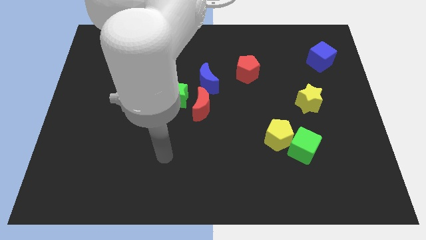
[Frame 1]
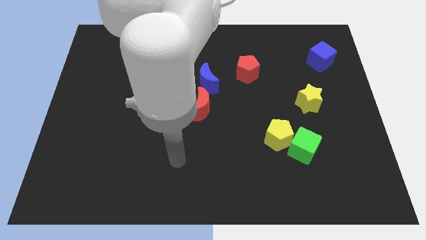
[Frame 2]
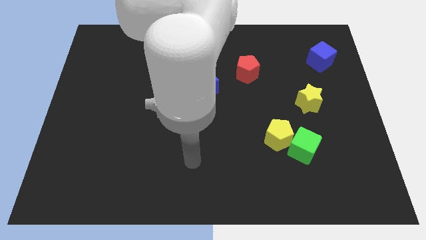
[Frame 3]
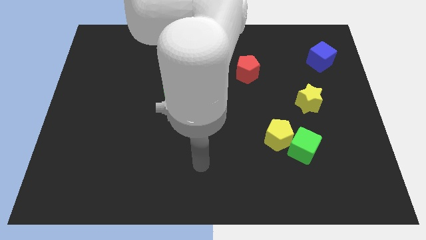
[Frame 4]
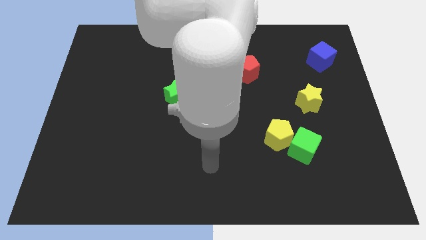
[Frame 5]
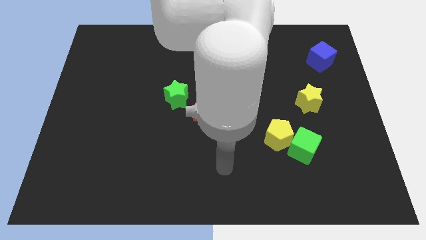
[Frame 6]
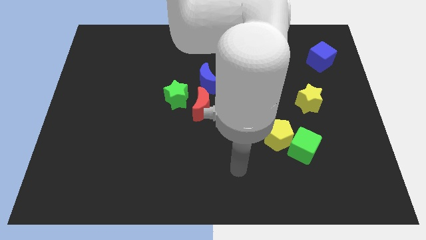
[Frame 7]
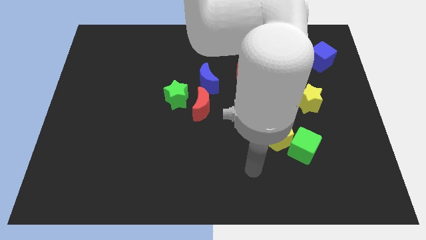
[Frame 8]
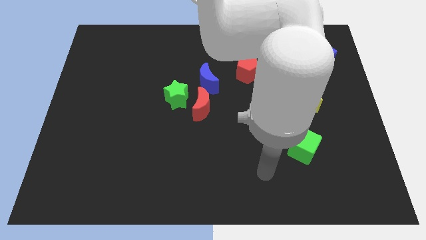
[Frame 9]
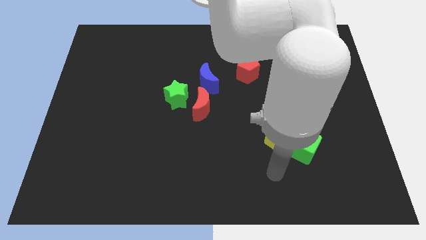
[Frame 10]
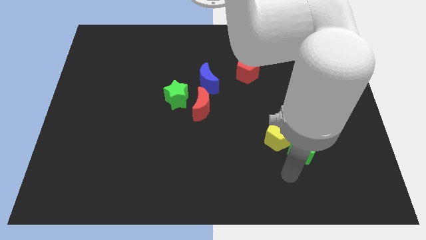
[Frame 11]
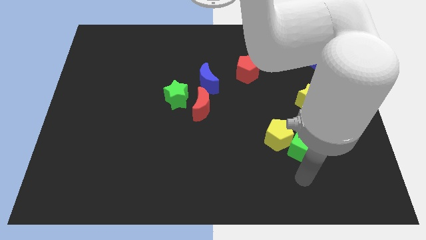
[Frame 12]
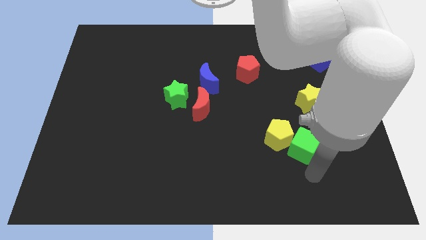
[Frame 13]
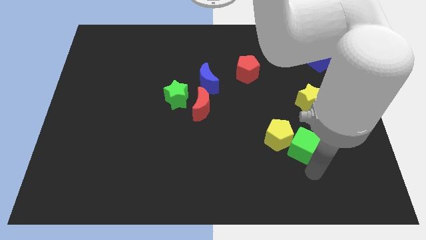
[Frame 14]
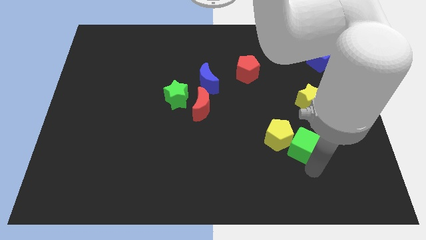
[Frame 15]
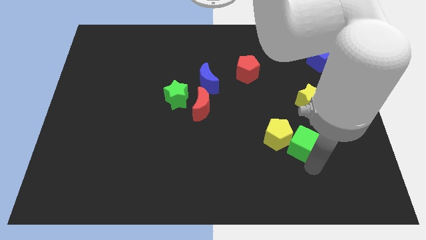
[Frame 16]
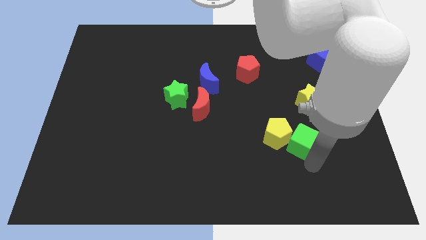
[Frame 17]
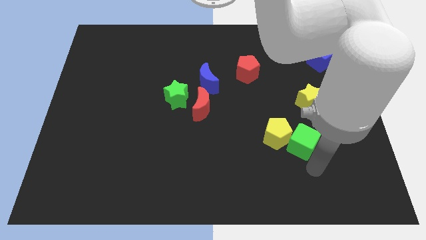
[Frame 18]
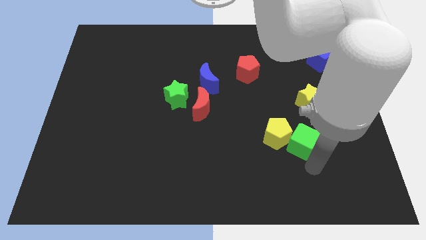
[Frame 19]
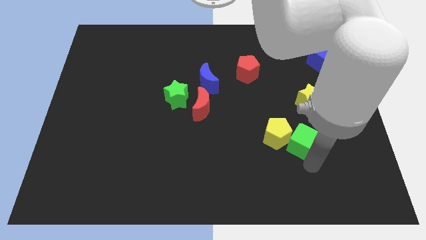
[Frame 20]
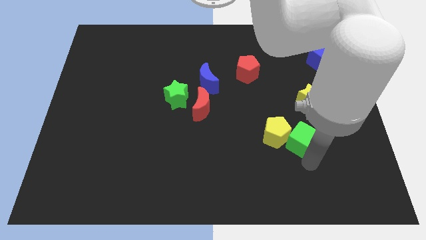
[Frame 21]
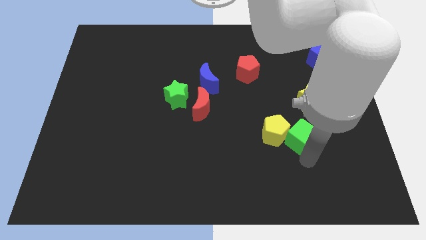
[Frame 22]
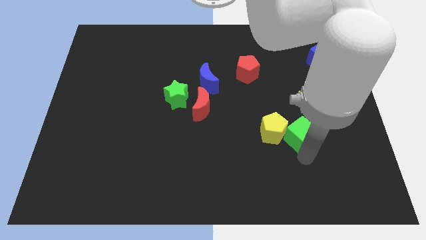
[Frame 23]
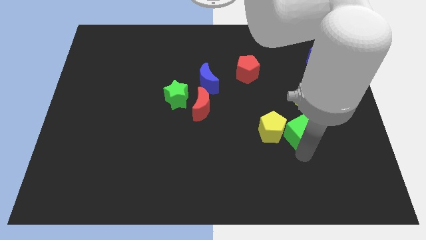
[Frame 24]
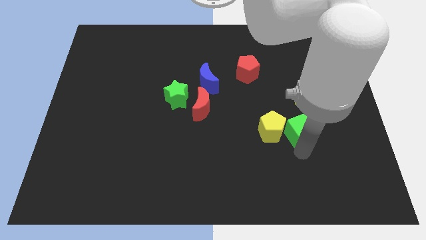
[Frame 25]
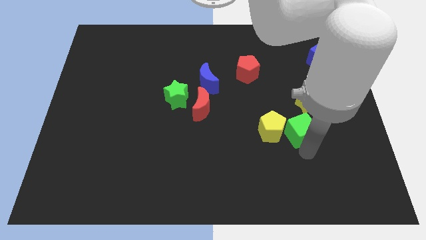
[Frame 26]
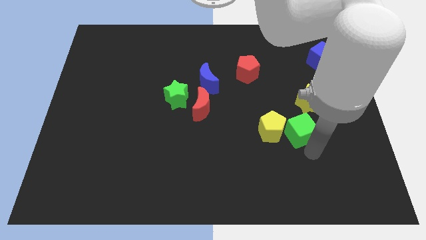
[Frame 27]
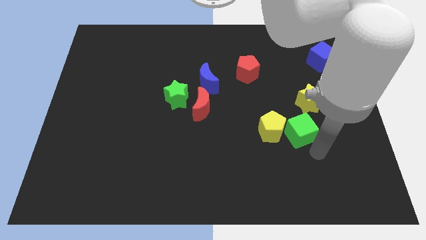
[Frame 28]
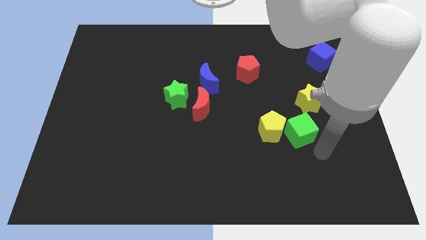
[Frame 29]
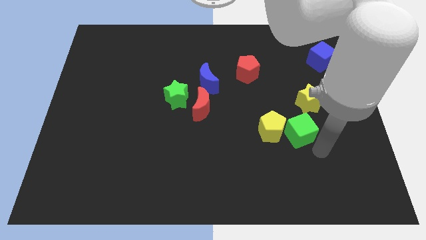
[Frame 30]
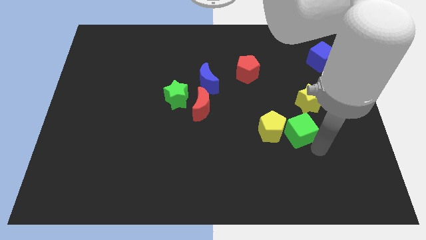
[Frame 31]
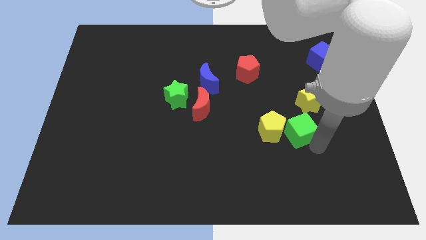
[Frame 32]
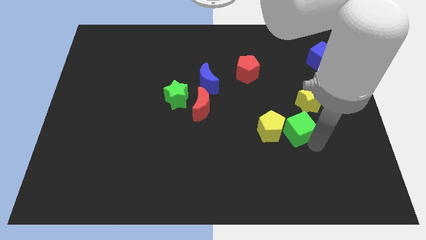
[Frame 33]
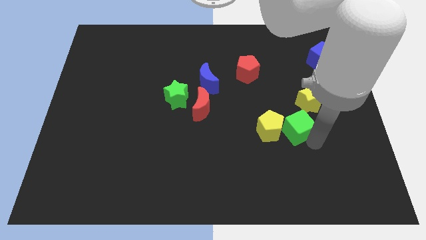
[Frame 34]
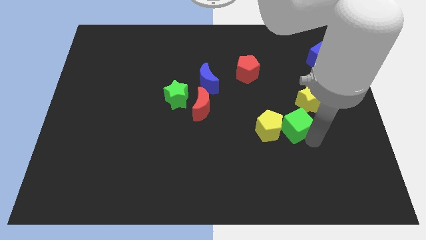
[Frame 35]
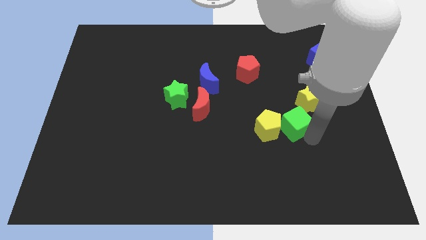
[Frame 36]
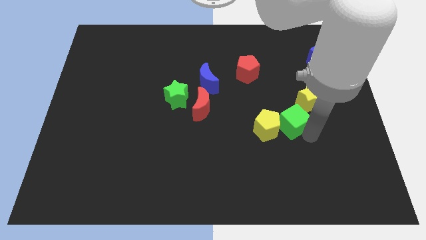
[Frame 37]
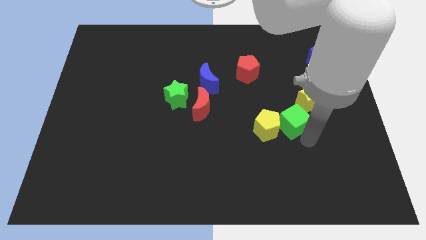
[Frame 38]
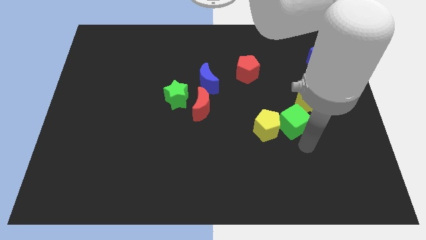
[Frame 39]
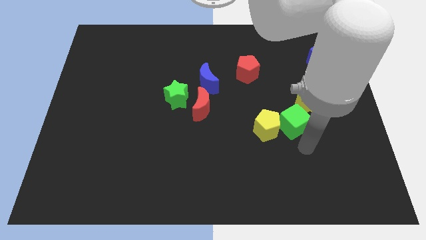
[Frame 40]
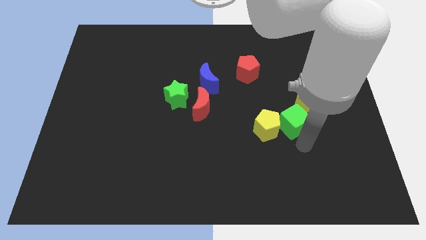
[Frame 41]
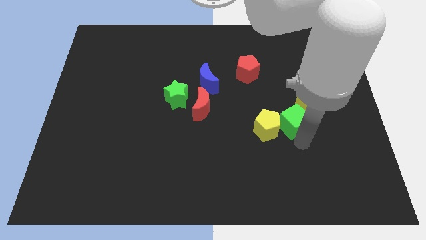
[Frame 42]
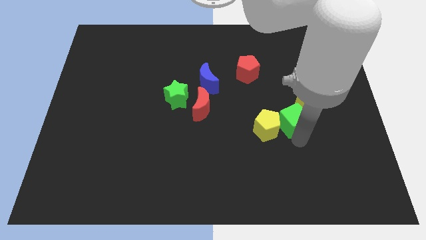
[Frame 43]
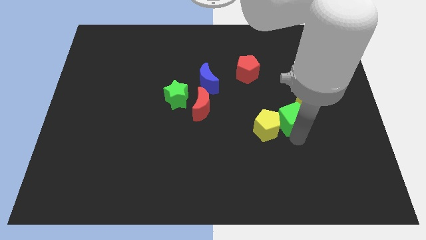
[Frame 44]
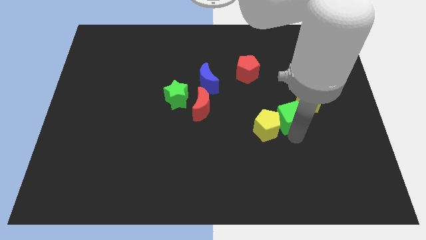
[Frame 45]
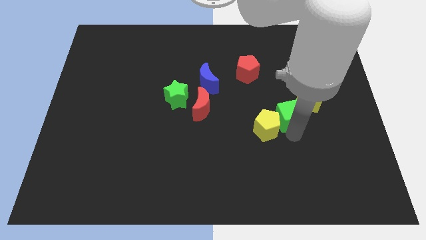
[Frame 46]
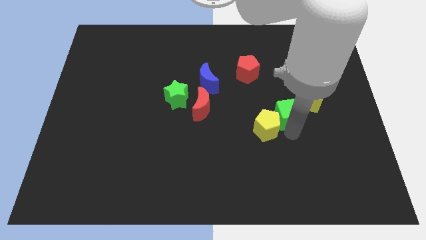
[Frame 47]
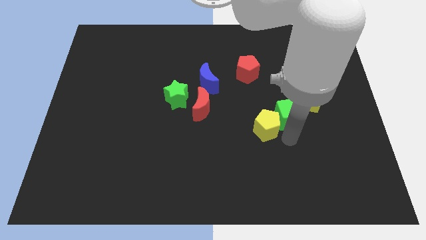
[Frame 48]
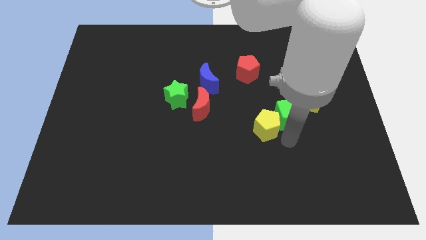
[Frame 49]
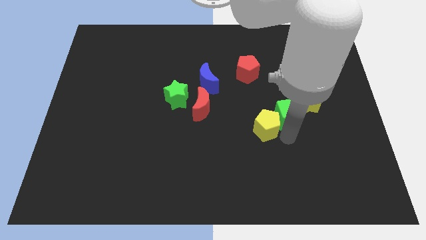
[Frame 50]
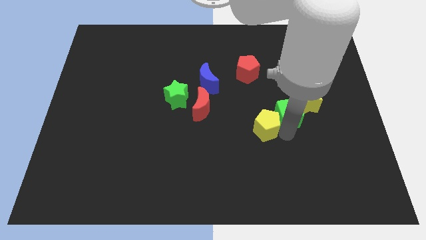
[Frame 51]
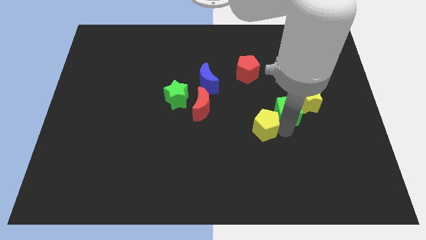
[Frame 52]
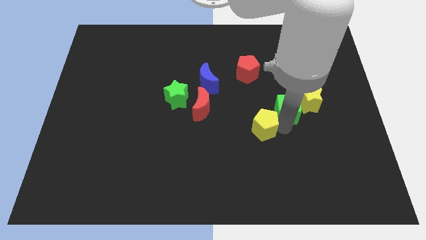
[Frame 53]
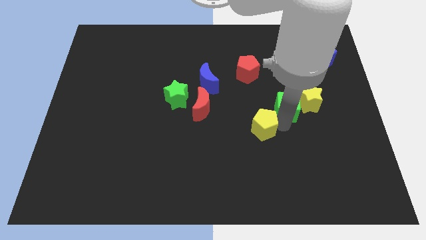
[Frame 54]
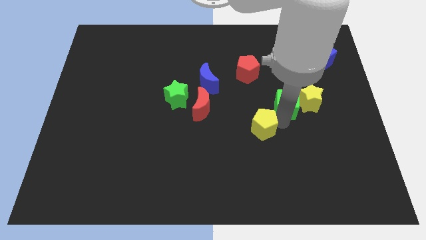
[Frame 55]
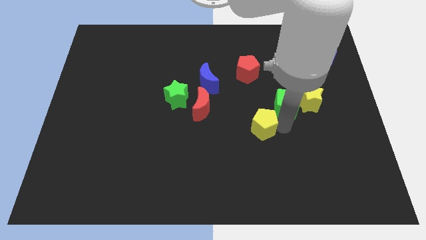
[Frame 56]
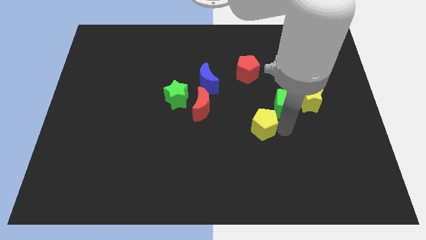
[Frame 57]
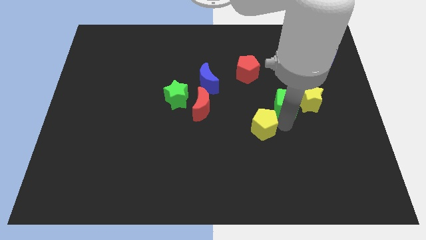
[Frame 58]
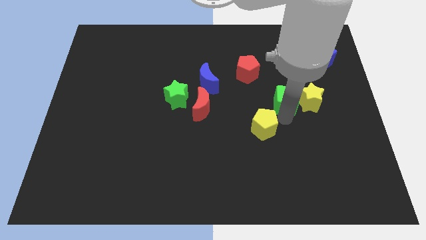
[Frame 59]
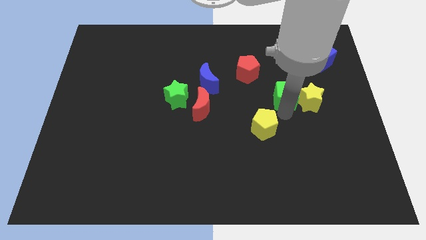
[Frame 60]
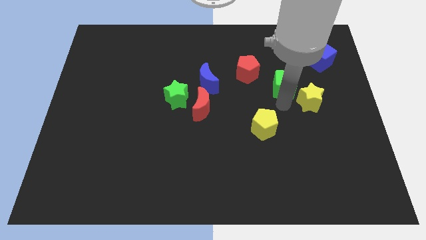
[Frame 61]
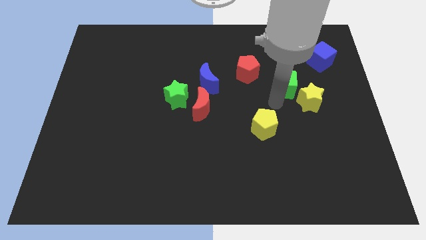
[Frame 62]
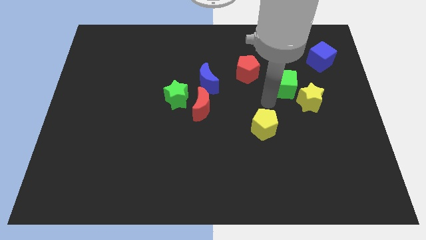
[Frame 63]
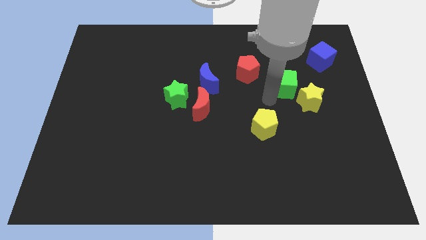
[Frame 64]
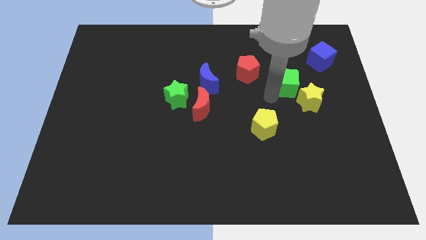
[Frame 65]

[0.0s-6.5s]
push the green cube to the top side of the yellow star

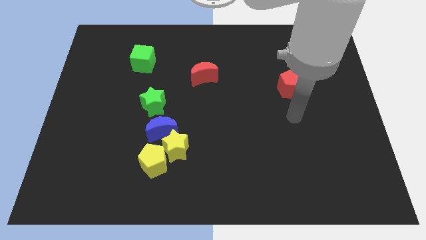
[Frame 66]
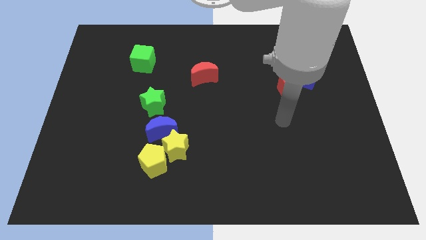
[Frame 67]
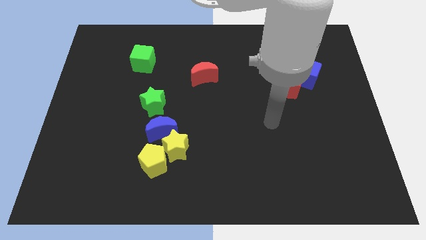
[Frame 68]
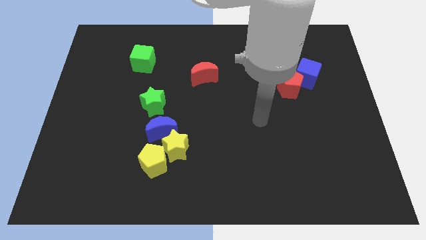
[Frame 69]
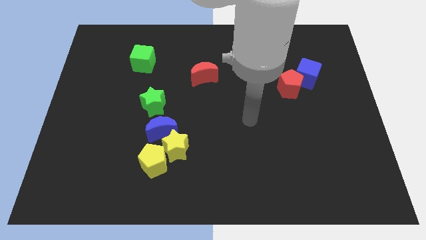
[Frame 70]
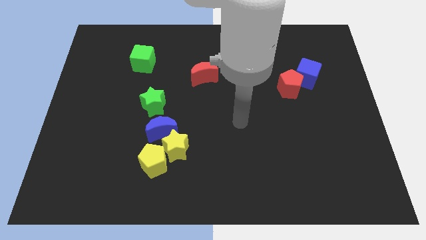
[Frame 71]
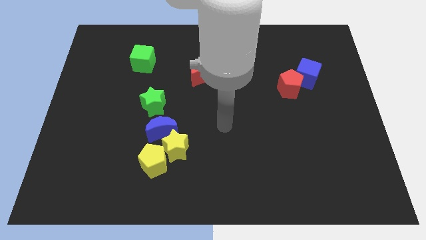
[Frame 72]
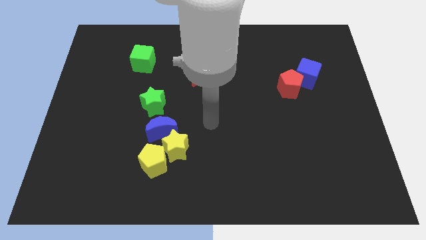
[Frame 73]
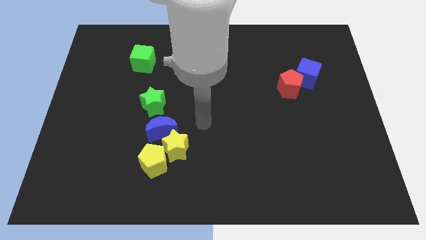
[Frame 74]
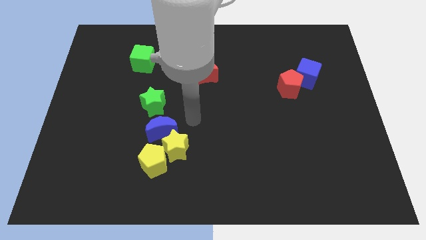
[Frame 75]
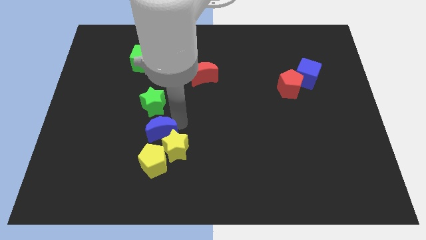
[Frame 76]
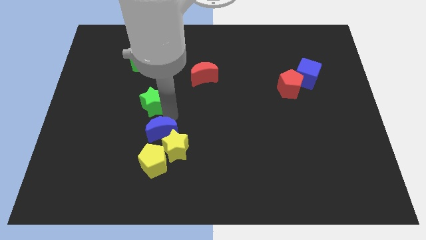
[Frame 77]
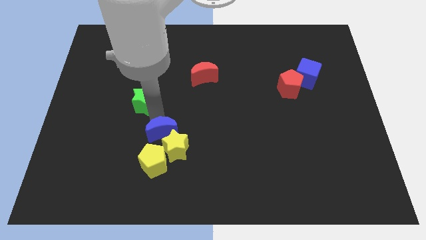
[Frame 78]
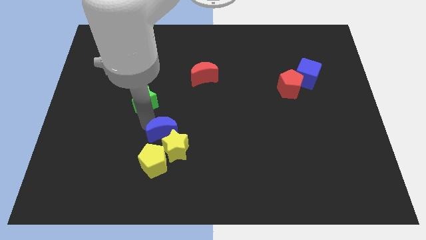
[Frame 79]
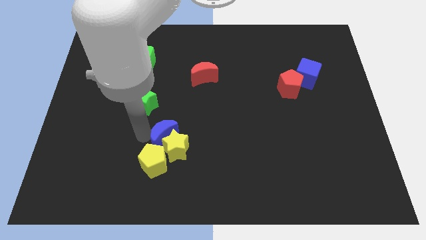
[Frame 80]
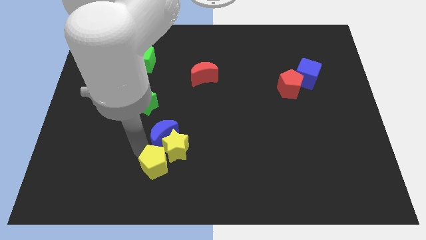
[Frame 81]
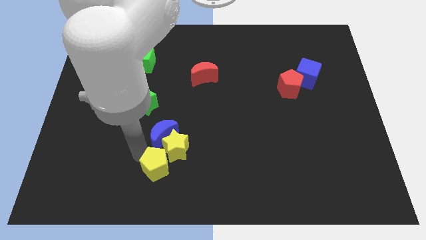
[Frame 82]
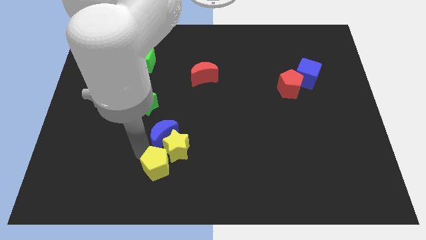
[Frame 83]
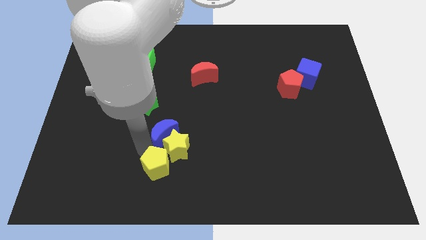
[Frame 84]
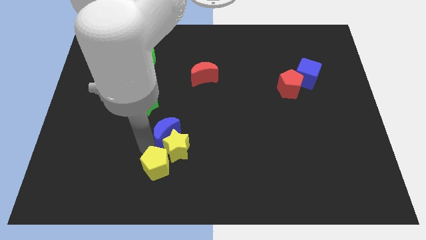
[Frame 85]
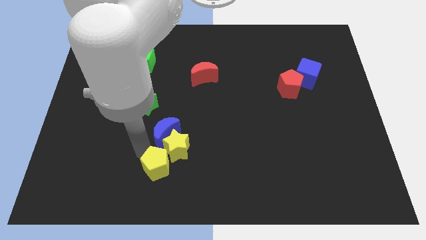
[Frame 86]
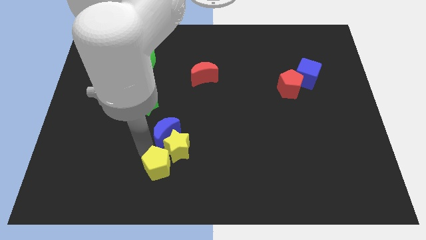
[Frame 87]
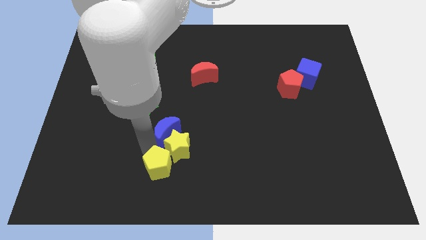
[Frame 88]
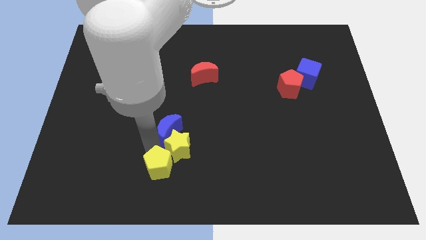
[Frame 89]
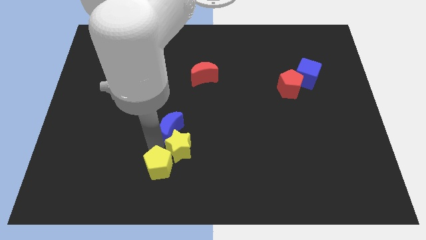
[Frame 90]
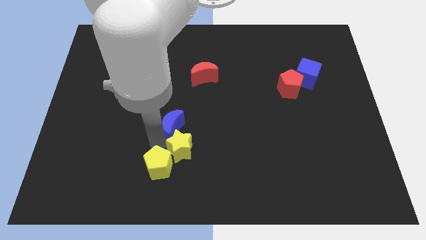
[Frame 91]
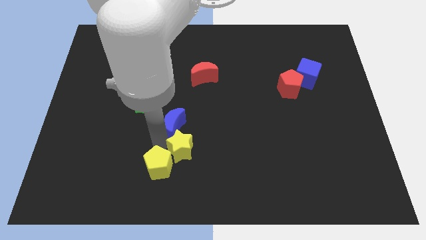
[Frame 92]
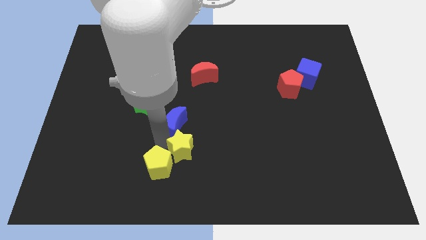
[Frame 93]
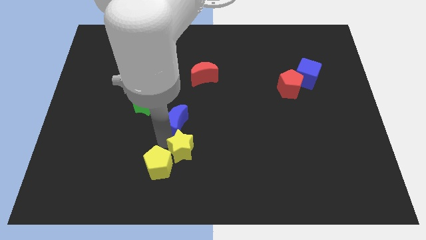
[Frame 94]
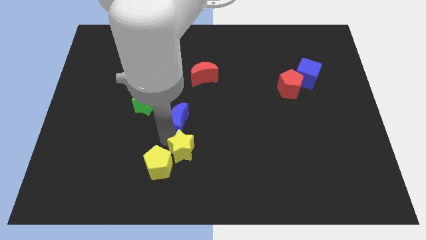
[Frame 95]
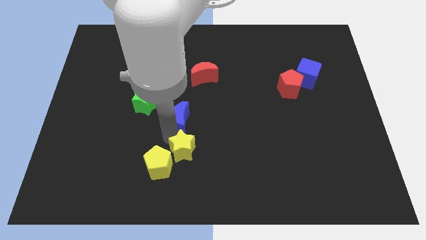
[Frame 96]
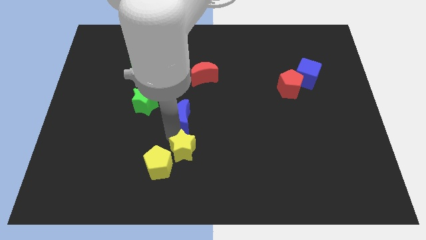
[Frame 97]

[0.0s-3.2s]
slide the blue moon to the bottom side of the red moon
